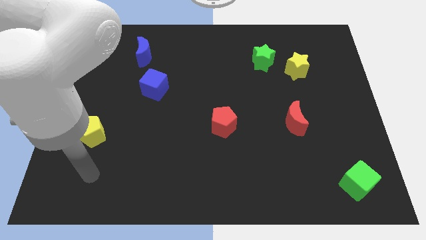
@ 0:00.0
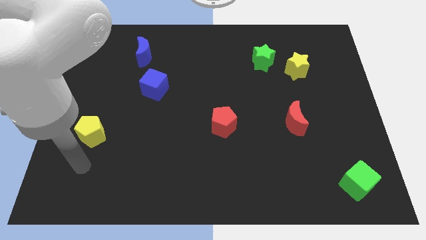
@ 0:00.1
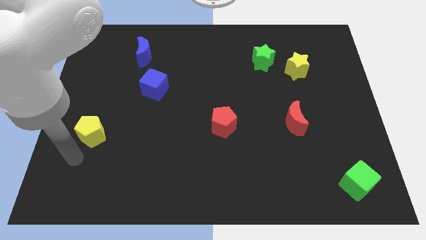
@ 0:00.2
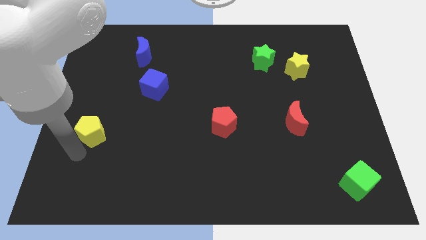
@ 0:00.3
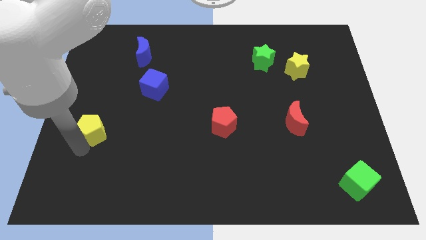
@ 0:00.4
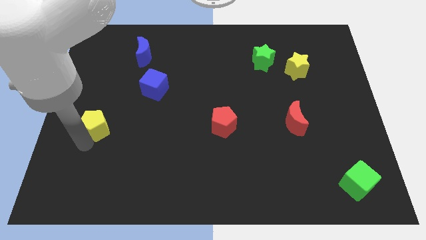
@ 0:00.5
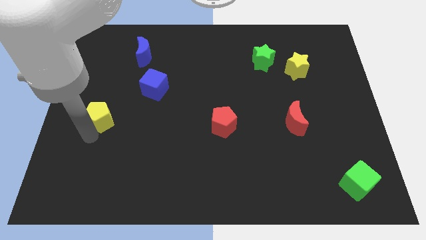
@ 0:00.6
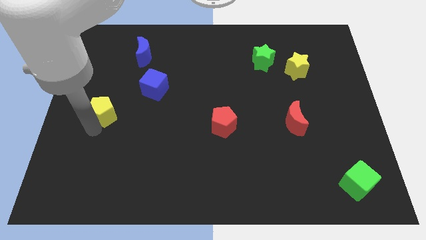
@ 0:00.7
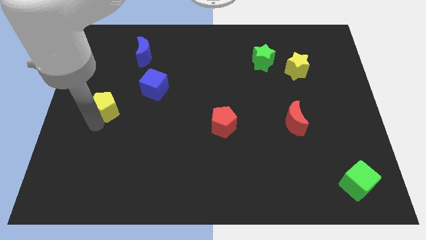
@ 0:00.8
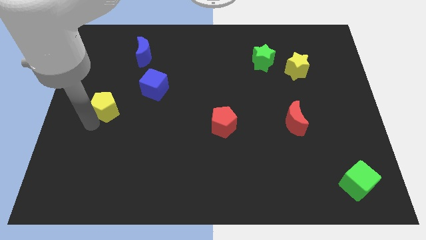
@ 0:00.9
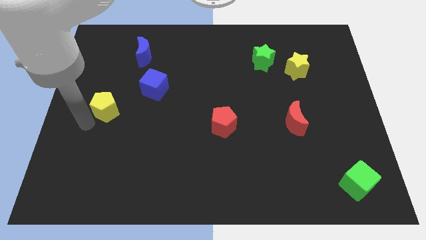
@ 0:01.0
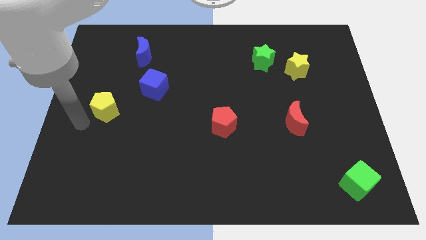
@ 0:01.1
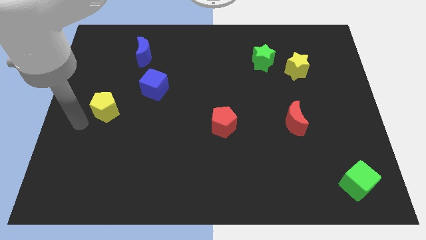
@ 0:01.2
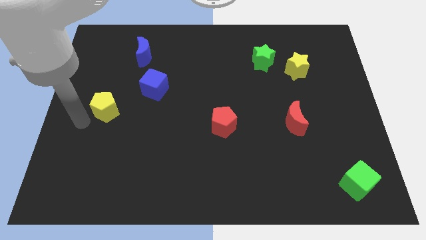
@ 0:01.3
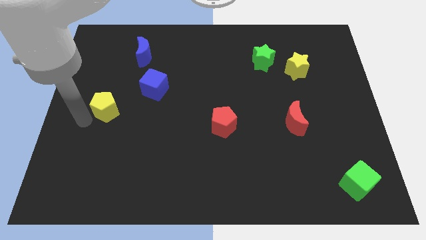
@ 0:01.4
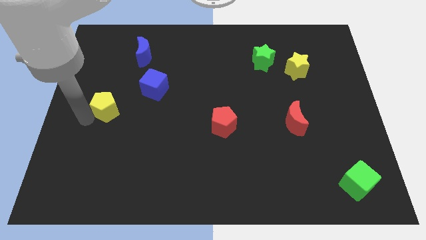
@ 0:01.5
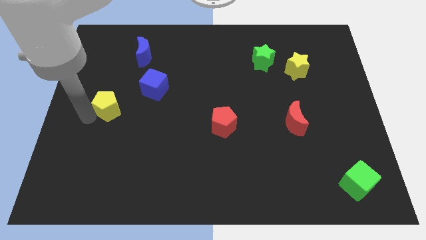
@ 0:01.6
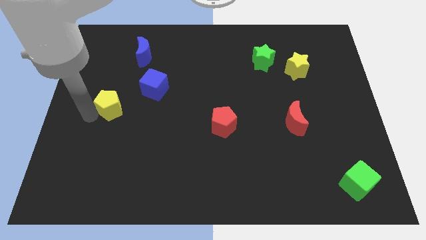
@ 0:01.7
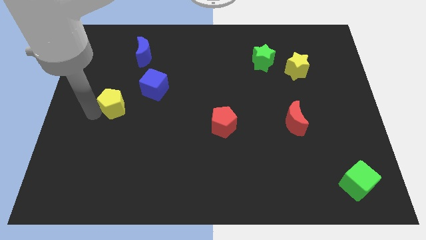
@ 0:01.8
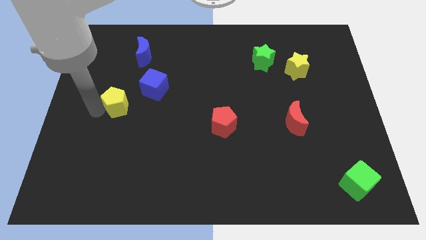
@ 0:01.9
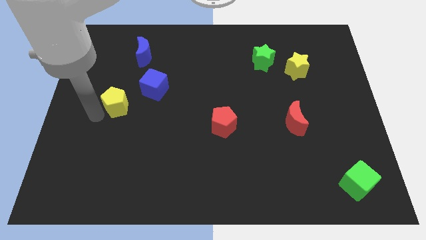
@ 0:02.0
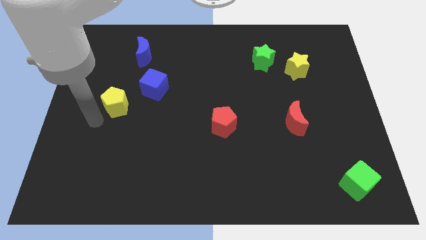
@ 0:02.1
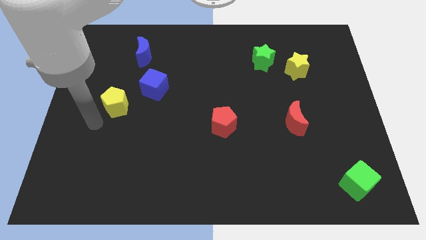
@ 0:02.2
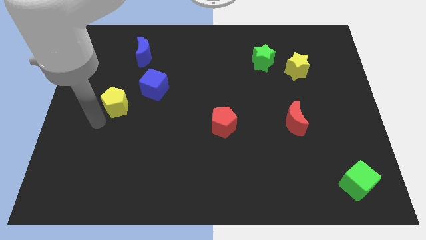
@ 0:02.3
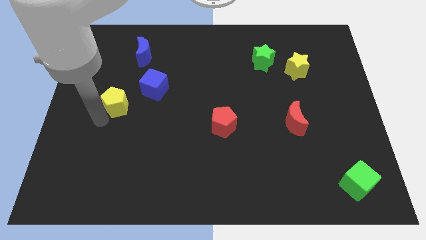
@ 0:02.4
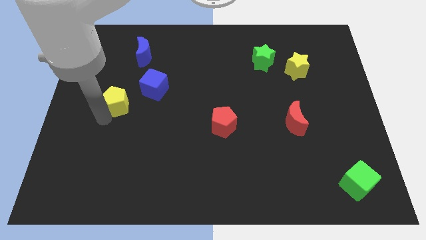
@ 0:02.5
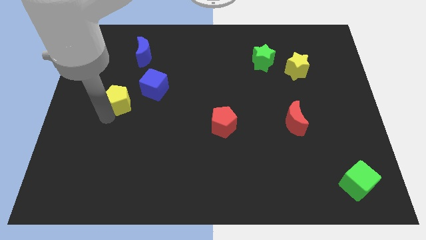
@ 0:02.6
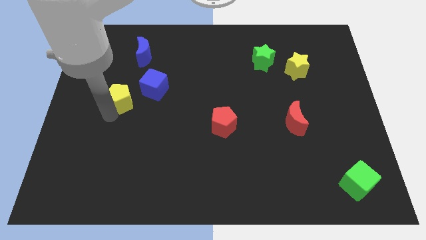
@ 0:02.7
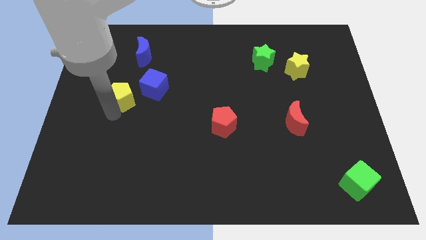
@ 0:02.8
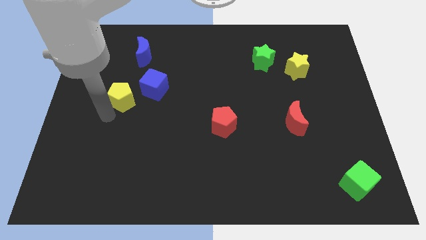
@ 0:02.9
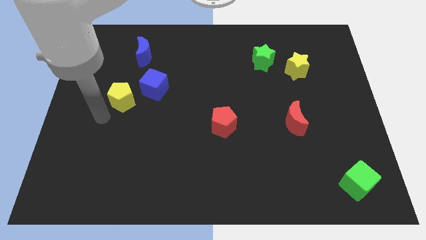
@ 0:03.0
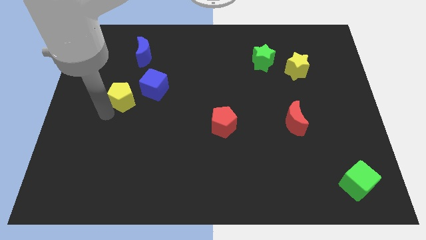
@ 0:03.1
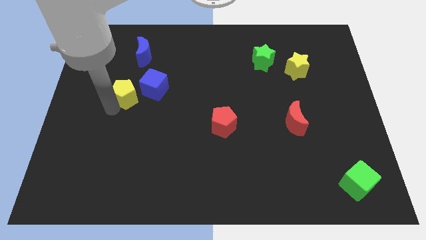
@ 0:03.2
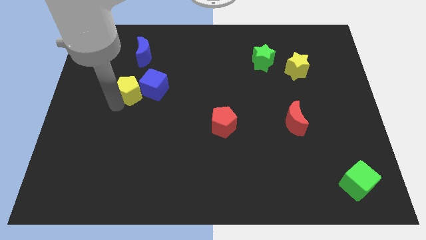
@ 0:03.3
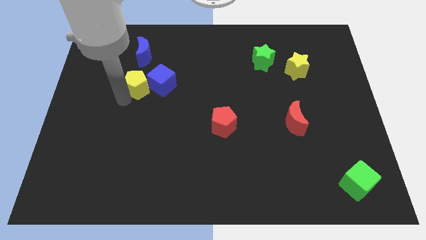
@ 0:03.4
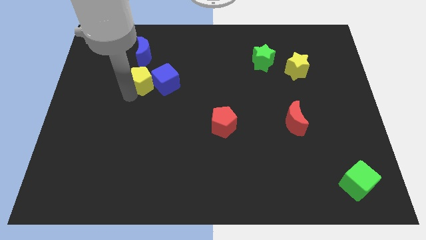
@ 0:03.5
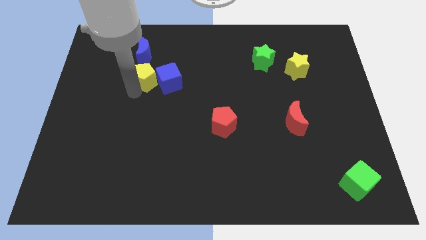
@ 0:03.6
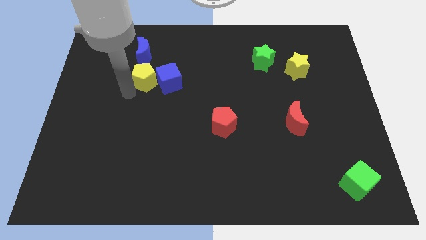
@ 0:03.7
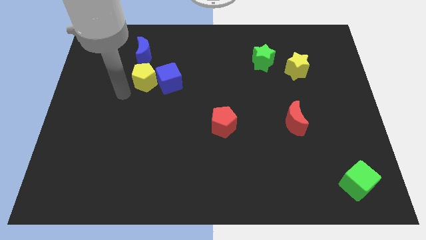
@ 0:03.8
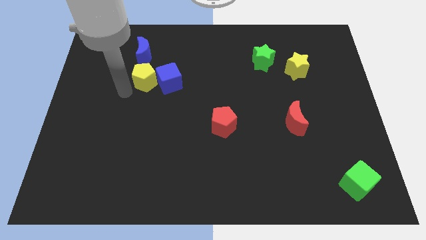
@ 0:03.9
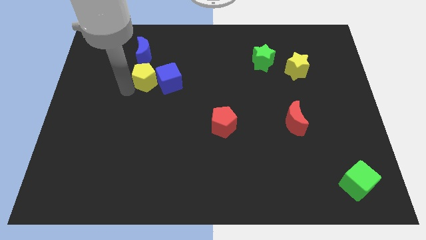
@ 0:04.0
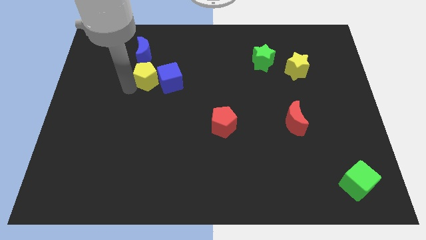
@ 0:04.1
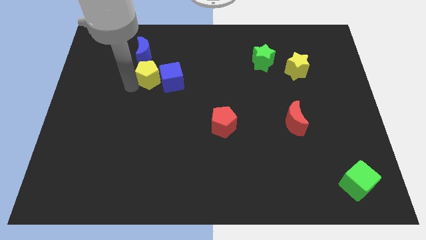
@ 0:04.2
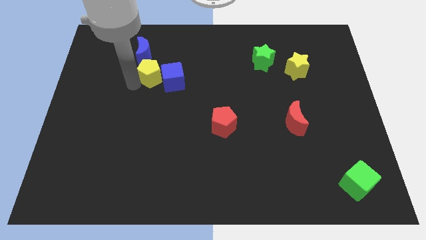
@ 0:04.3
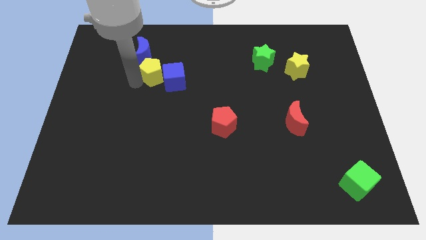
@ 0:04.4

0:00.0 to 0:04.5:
move the yellow pentagon upwards and to the right

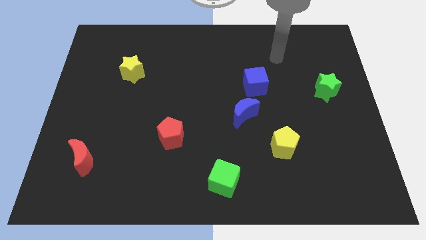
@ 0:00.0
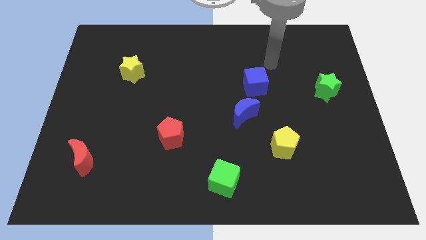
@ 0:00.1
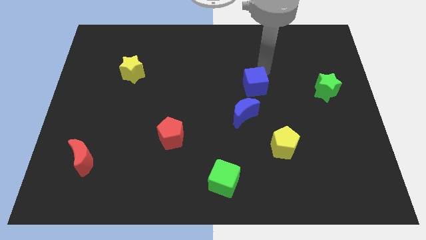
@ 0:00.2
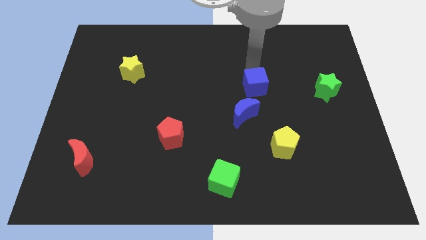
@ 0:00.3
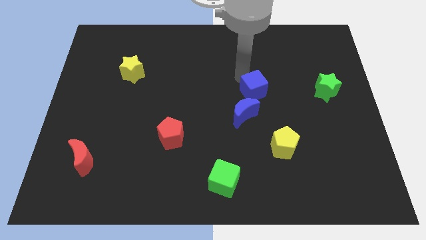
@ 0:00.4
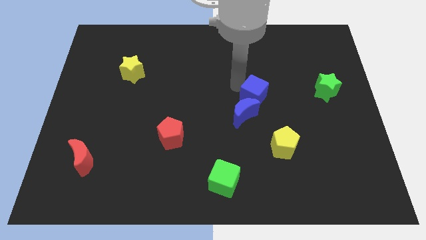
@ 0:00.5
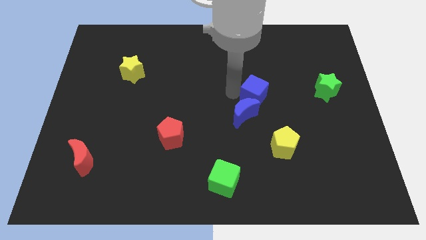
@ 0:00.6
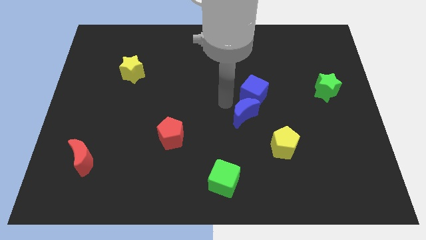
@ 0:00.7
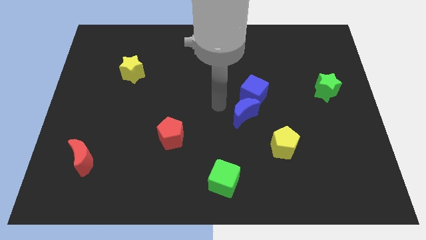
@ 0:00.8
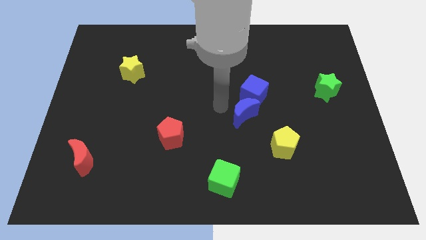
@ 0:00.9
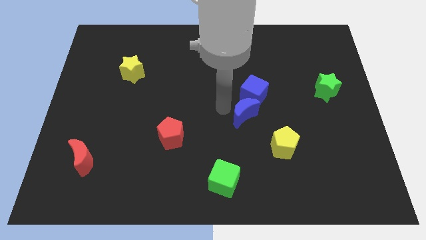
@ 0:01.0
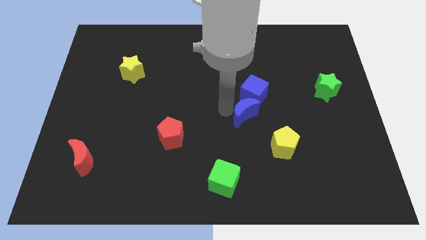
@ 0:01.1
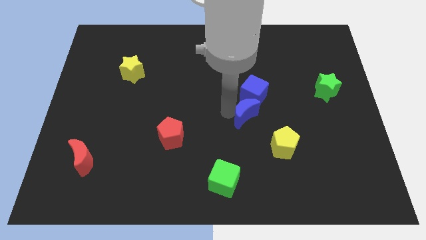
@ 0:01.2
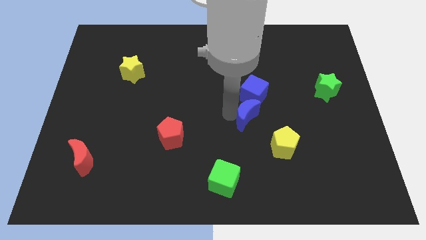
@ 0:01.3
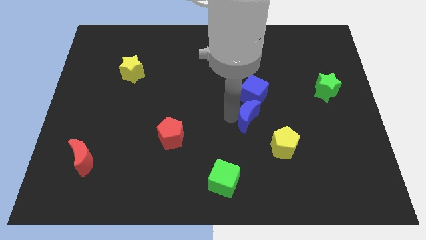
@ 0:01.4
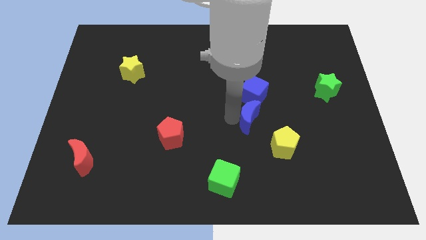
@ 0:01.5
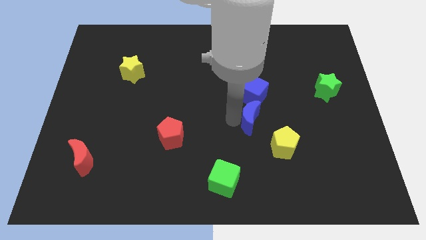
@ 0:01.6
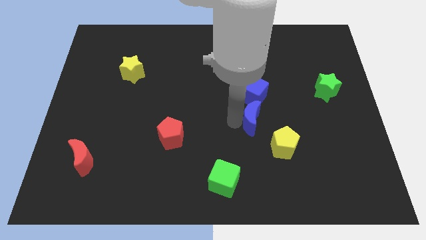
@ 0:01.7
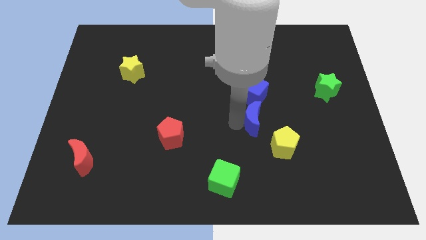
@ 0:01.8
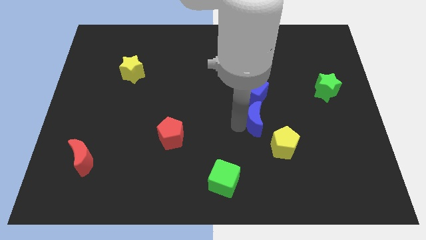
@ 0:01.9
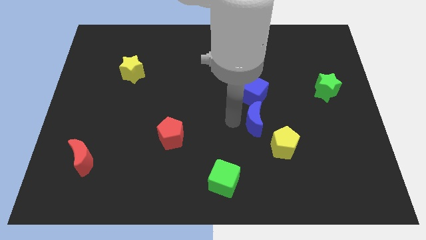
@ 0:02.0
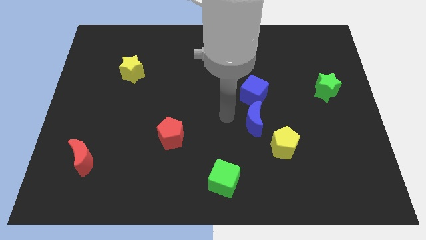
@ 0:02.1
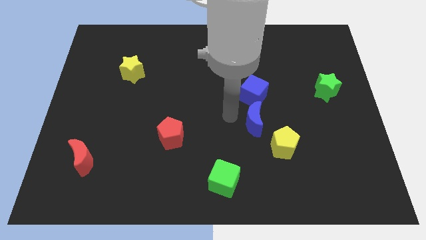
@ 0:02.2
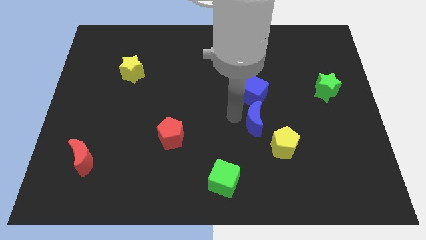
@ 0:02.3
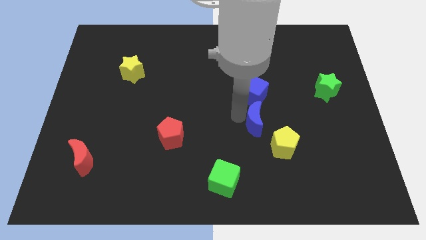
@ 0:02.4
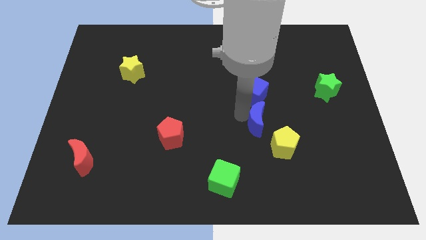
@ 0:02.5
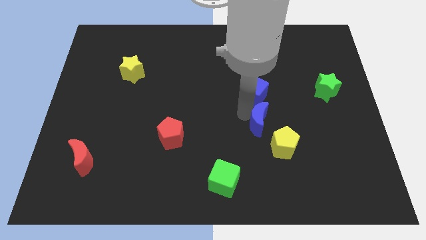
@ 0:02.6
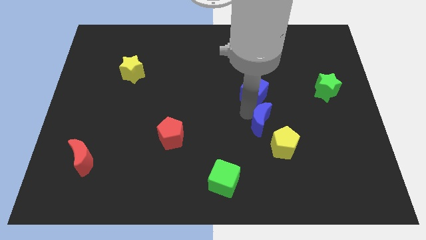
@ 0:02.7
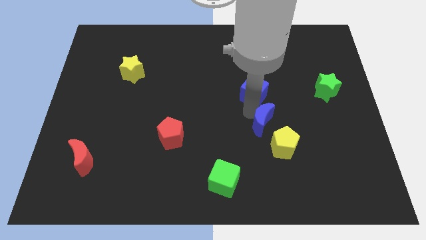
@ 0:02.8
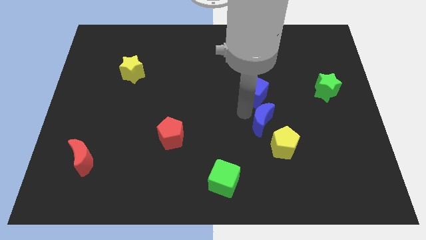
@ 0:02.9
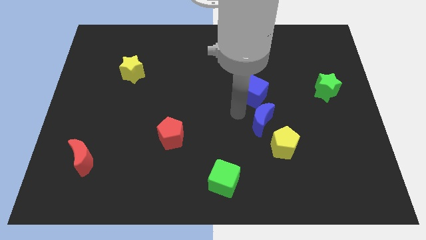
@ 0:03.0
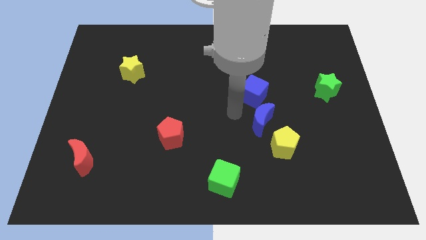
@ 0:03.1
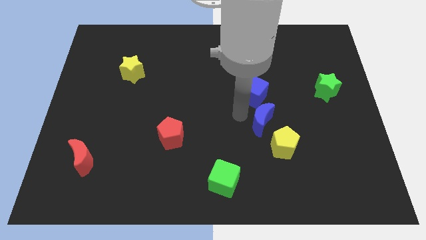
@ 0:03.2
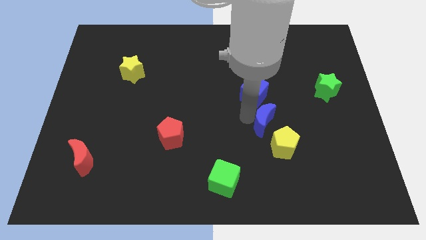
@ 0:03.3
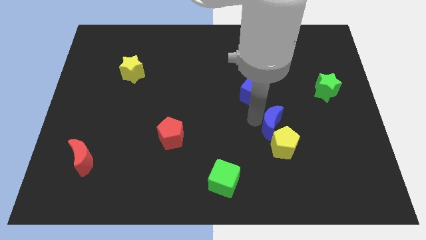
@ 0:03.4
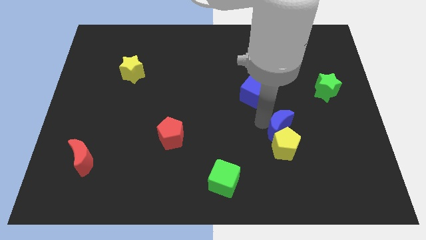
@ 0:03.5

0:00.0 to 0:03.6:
move the blue moon diagonally down and to the right a bit
